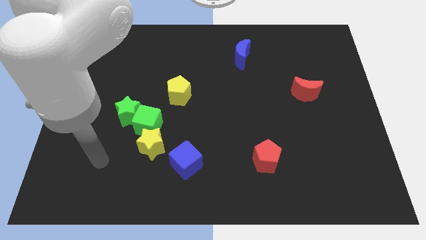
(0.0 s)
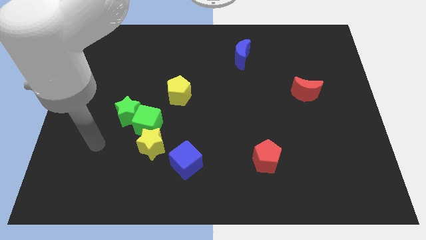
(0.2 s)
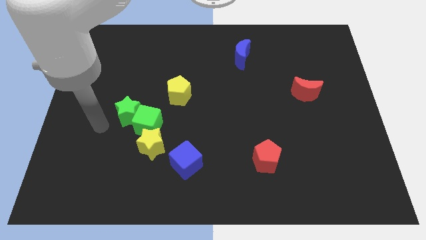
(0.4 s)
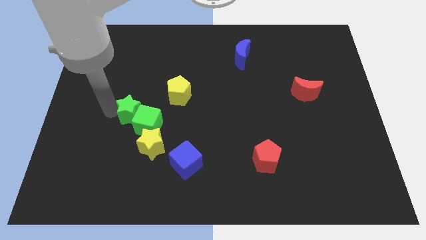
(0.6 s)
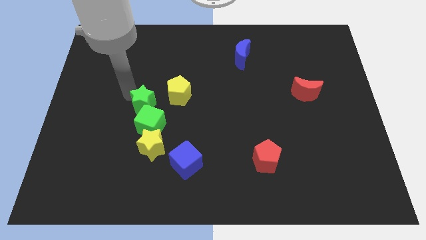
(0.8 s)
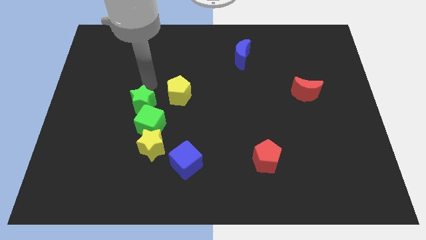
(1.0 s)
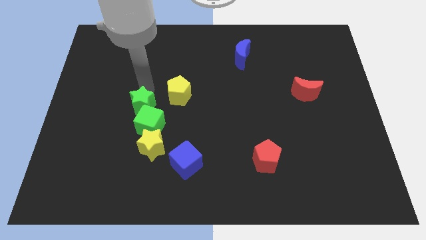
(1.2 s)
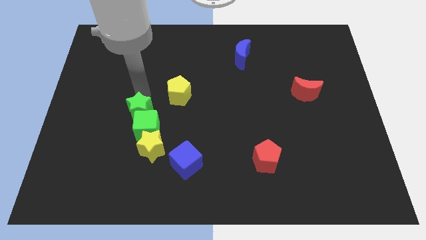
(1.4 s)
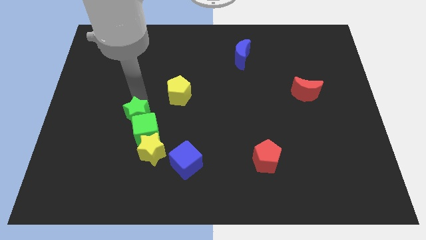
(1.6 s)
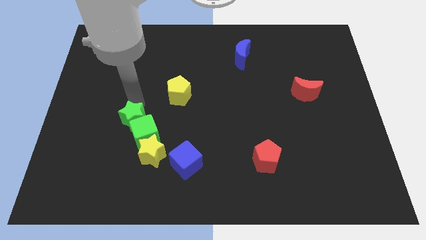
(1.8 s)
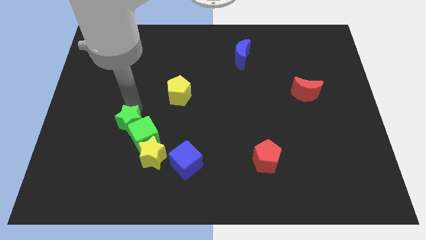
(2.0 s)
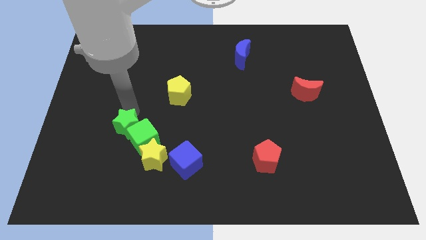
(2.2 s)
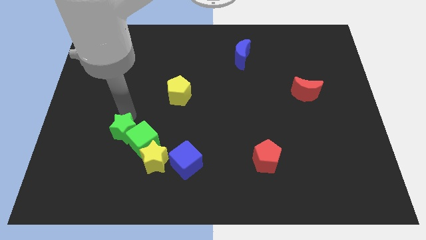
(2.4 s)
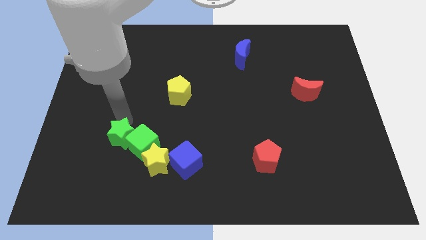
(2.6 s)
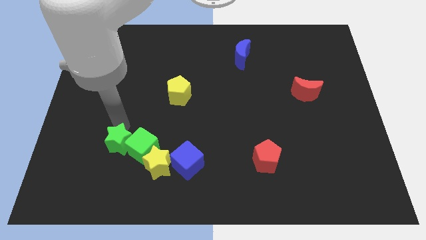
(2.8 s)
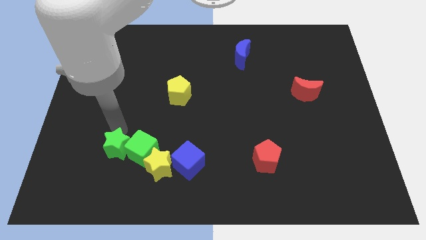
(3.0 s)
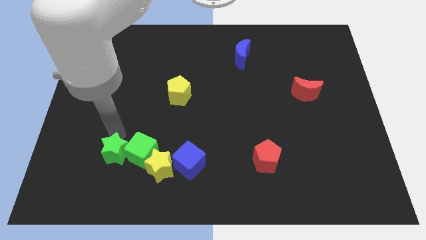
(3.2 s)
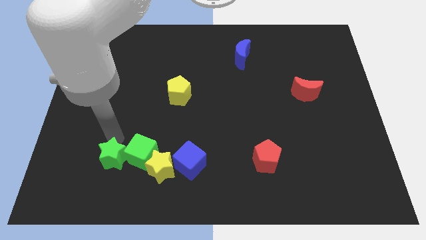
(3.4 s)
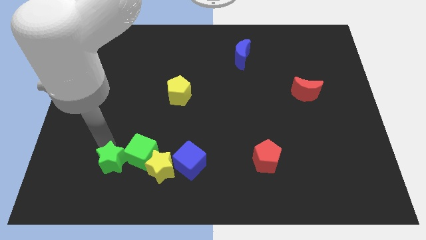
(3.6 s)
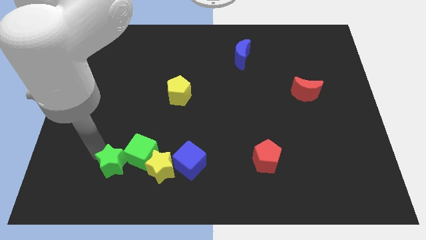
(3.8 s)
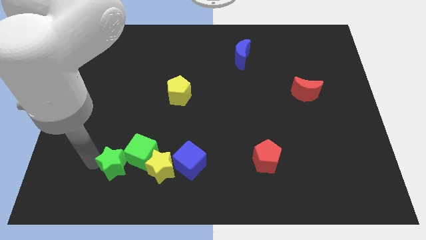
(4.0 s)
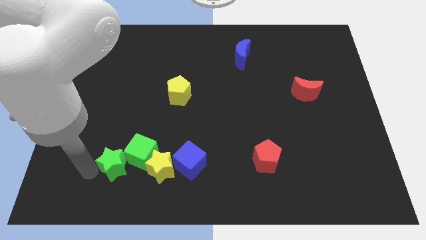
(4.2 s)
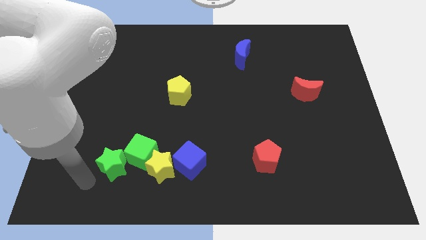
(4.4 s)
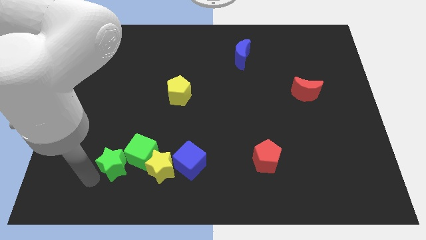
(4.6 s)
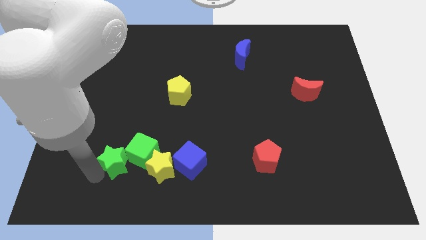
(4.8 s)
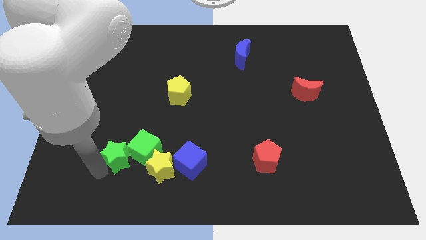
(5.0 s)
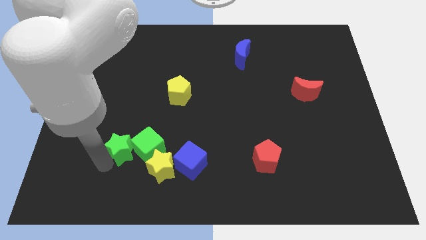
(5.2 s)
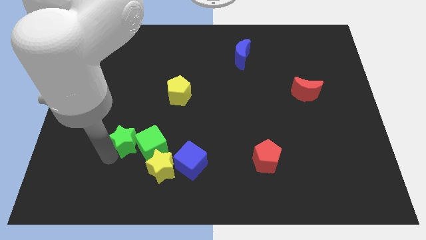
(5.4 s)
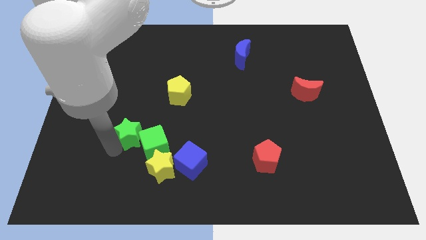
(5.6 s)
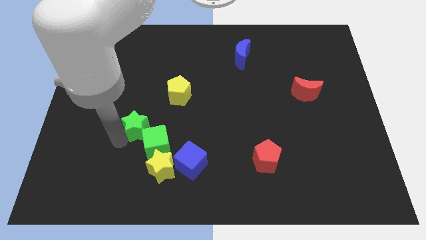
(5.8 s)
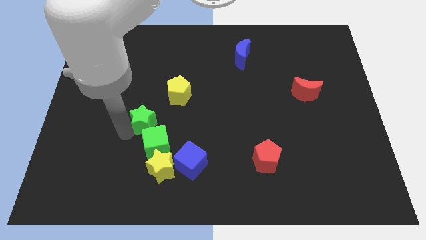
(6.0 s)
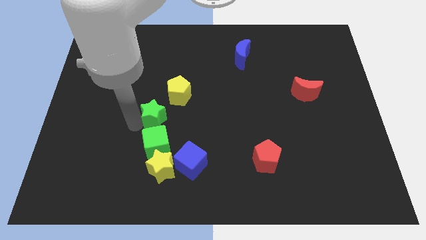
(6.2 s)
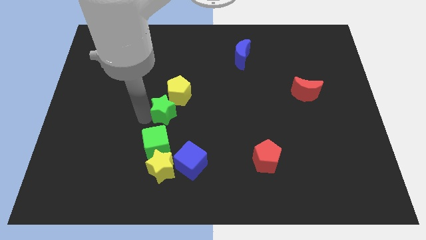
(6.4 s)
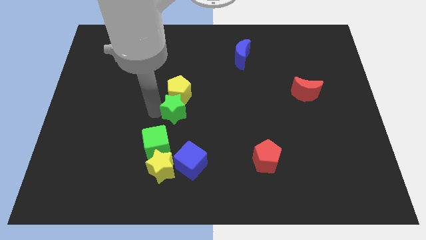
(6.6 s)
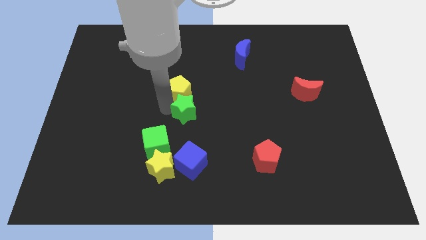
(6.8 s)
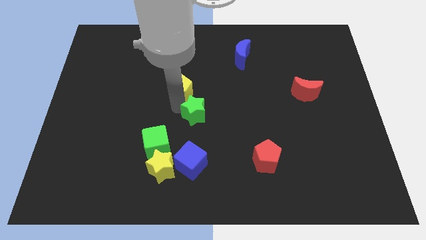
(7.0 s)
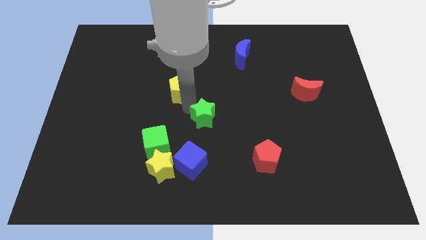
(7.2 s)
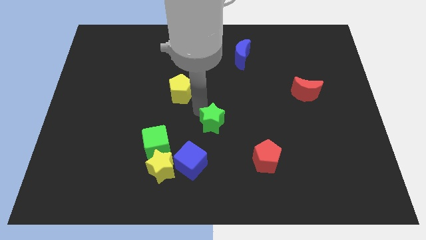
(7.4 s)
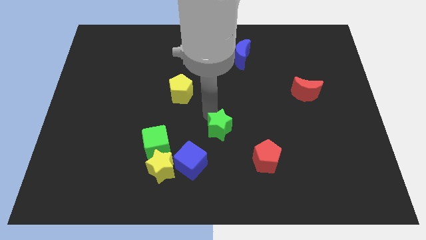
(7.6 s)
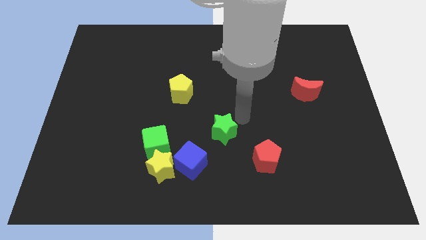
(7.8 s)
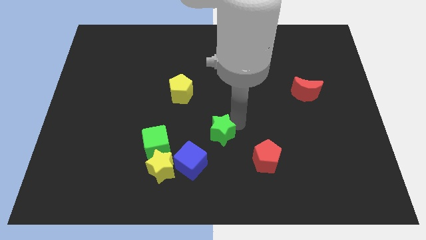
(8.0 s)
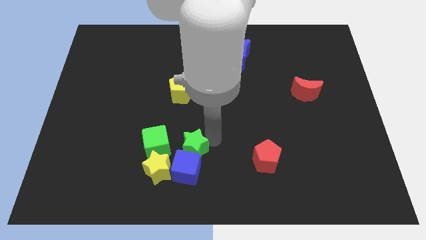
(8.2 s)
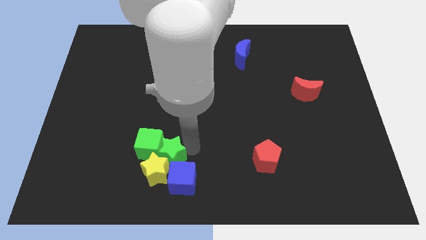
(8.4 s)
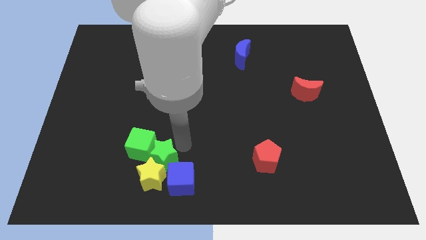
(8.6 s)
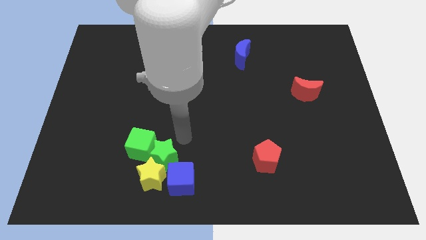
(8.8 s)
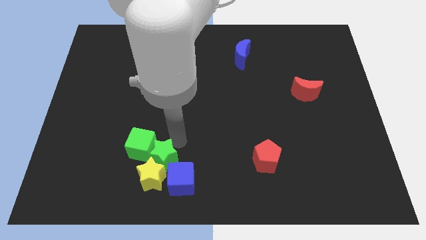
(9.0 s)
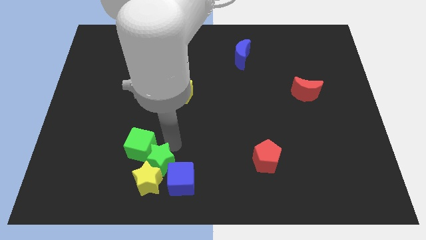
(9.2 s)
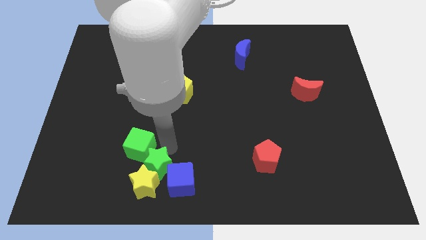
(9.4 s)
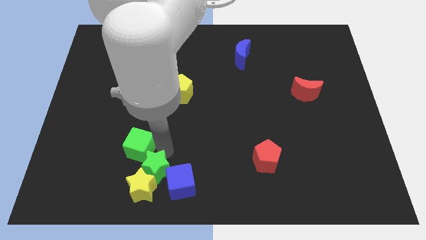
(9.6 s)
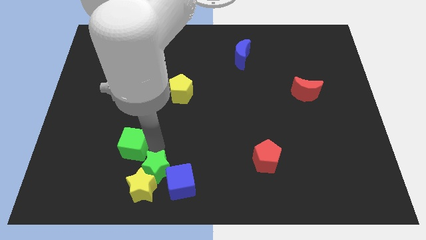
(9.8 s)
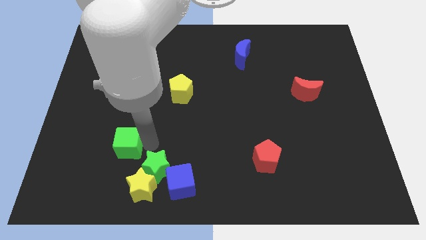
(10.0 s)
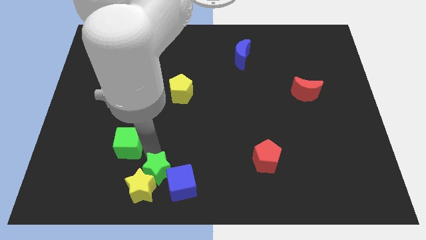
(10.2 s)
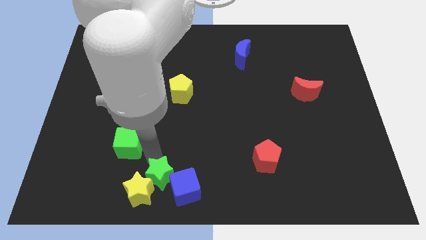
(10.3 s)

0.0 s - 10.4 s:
slide the green star to the bottom

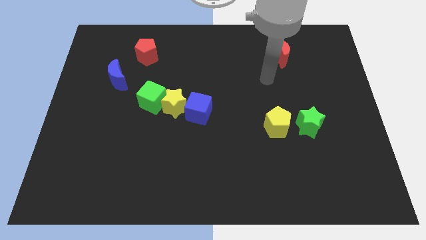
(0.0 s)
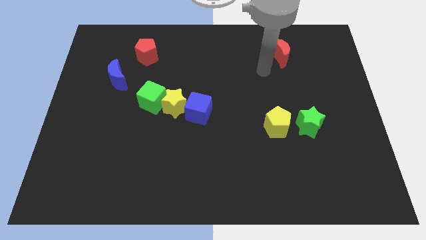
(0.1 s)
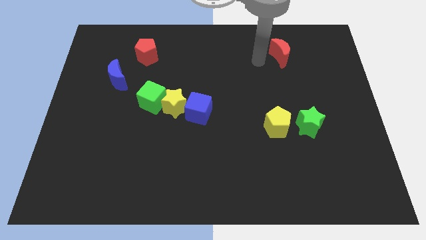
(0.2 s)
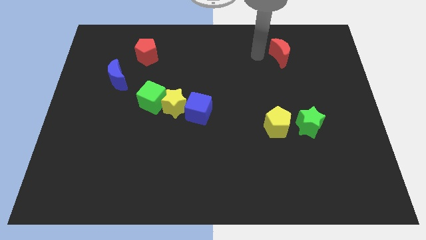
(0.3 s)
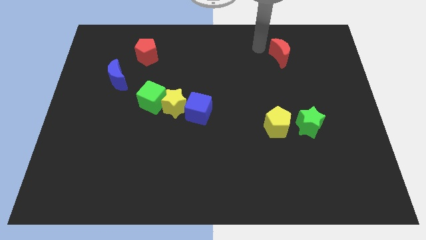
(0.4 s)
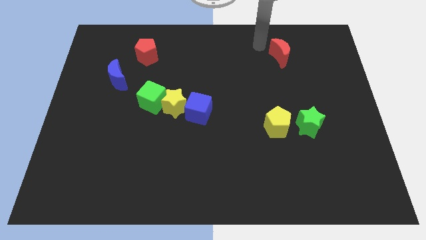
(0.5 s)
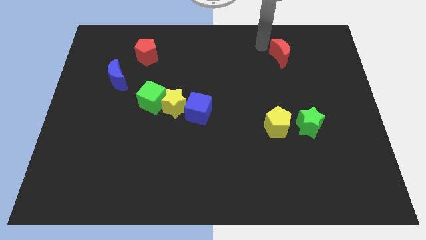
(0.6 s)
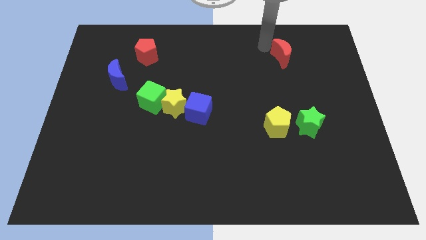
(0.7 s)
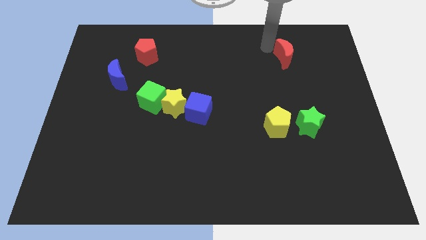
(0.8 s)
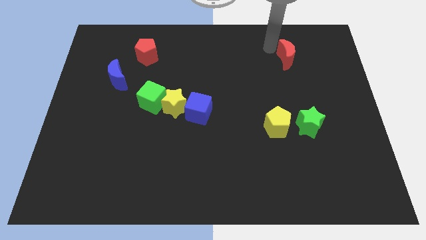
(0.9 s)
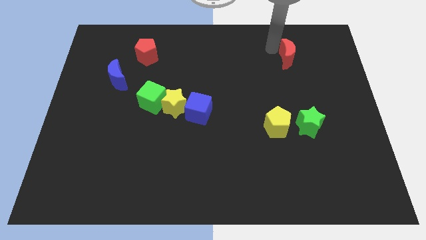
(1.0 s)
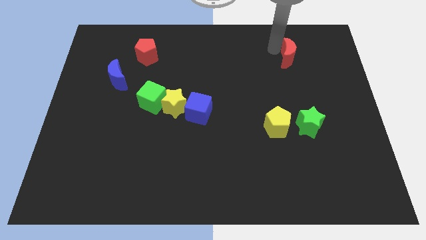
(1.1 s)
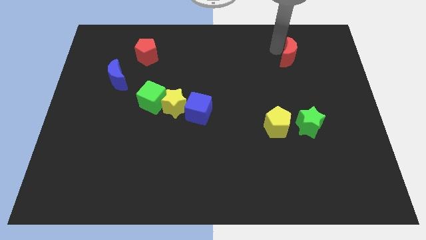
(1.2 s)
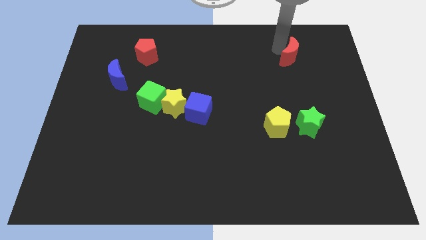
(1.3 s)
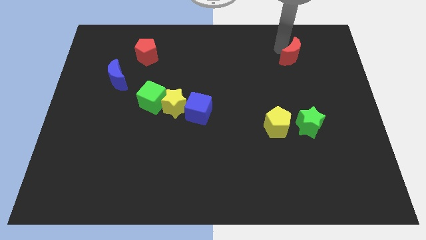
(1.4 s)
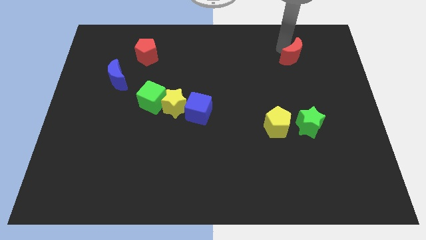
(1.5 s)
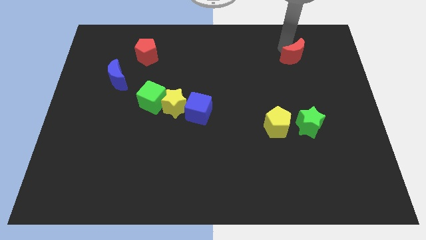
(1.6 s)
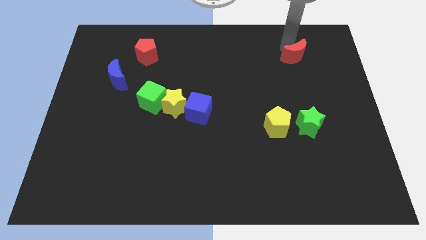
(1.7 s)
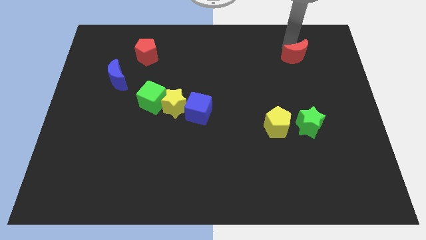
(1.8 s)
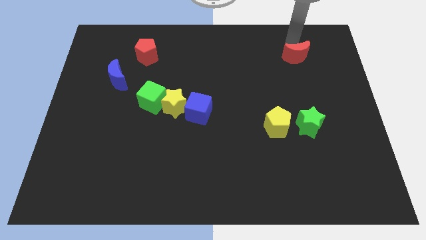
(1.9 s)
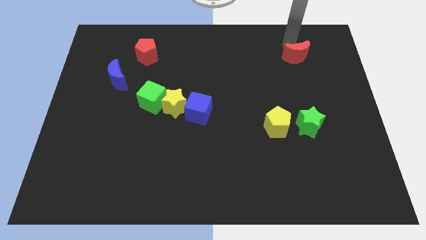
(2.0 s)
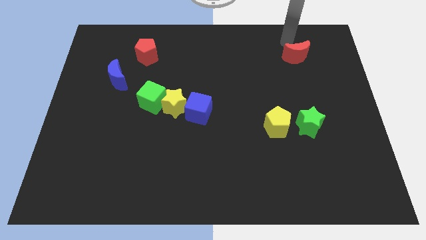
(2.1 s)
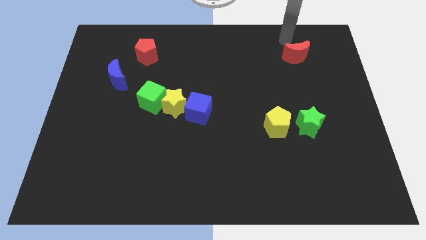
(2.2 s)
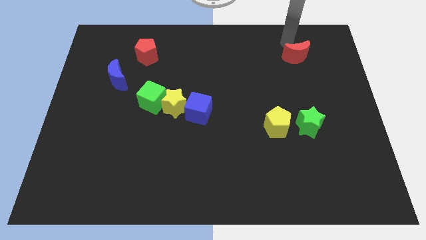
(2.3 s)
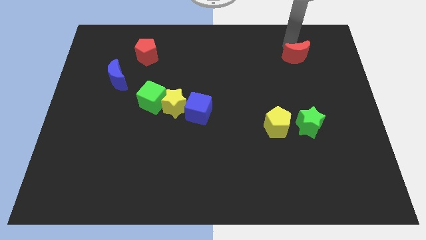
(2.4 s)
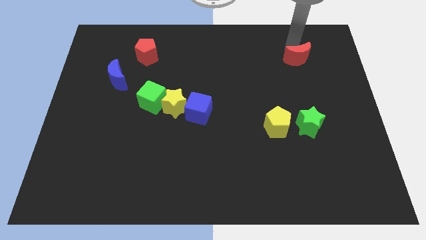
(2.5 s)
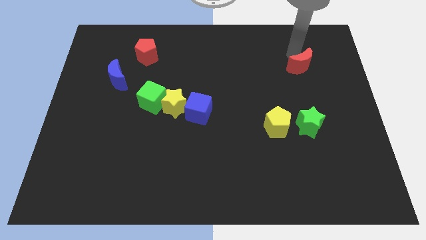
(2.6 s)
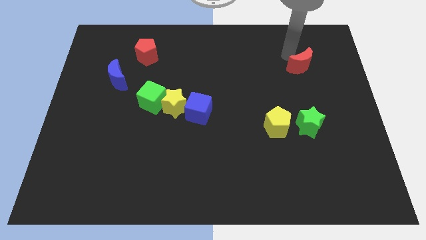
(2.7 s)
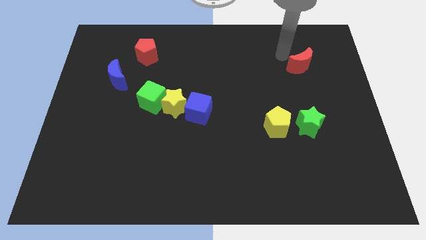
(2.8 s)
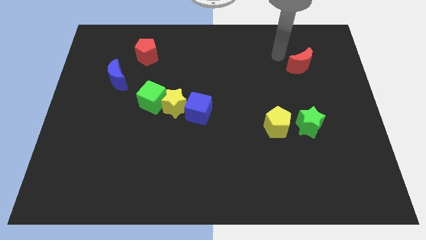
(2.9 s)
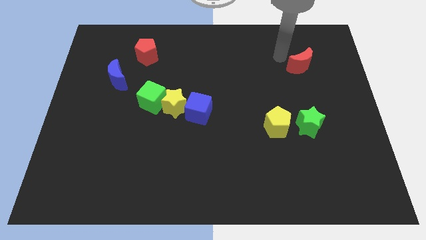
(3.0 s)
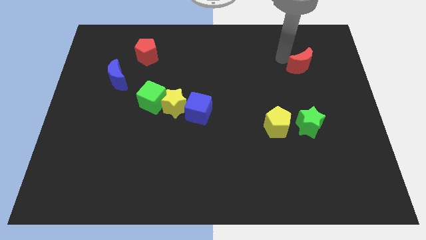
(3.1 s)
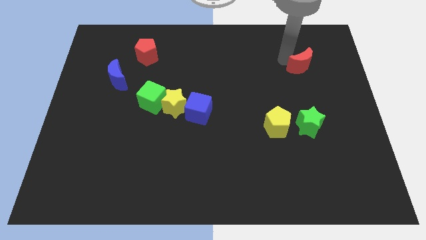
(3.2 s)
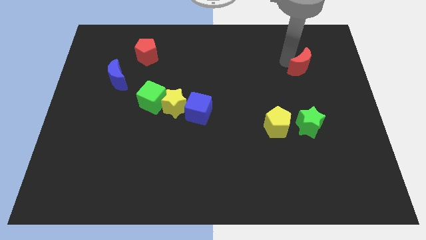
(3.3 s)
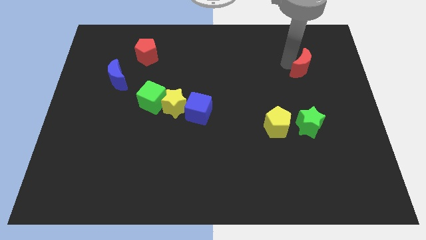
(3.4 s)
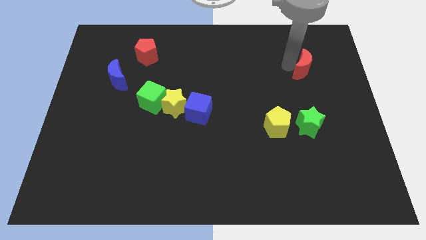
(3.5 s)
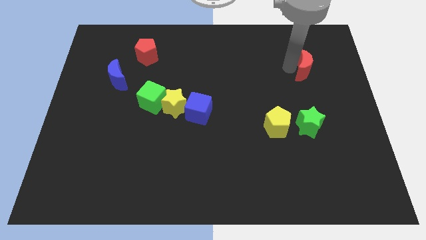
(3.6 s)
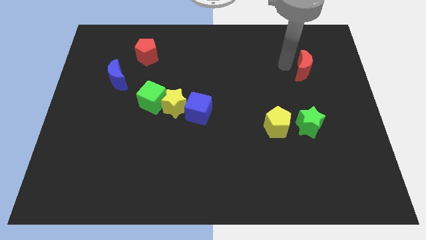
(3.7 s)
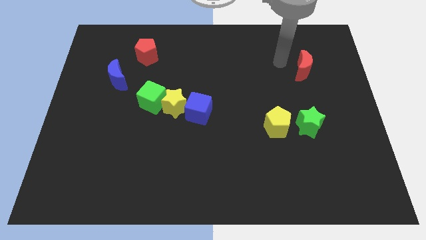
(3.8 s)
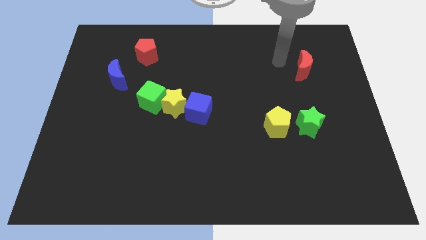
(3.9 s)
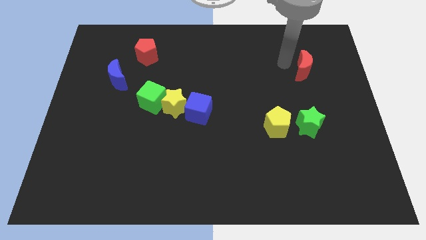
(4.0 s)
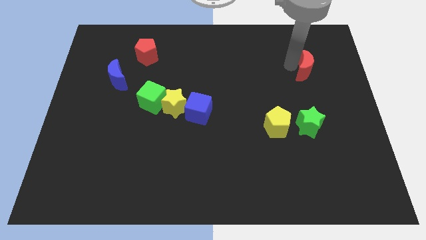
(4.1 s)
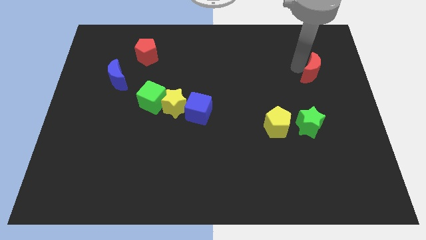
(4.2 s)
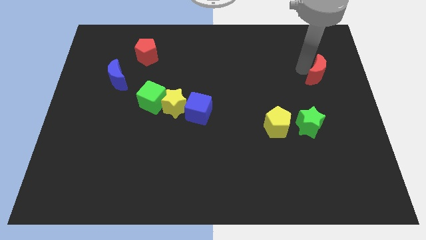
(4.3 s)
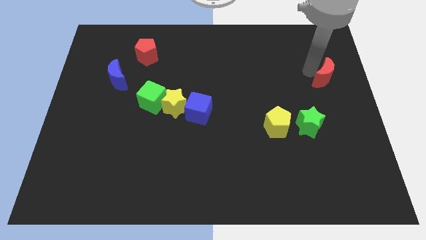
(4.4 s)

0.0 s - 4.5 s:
put the red moon to the right side of the board
